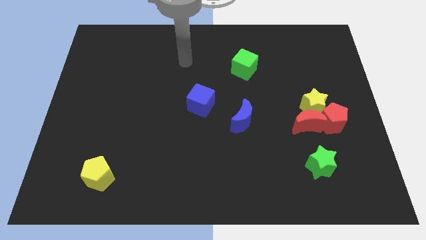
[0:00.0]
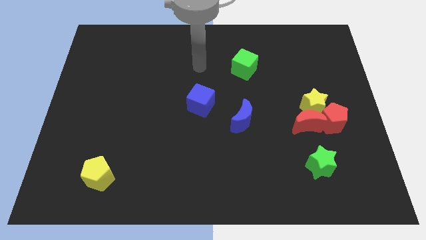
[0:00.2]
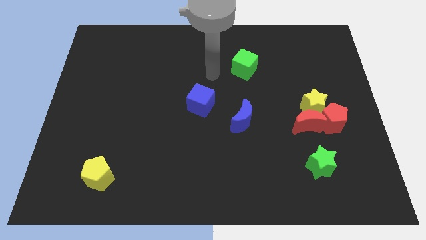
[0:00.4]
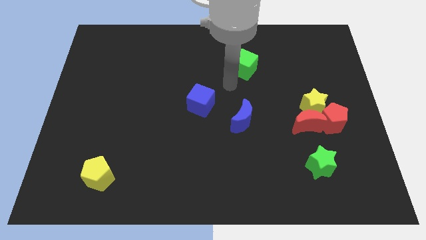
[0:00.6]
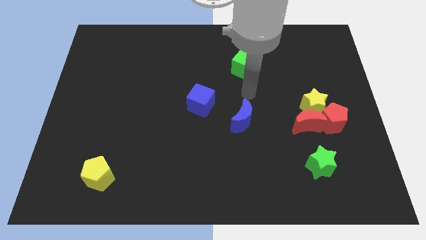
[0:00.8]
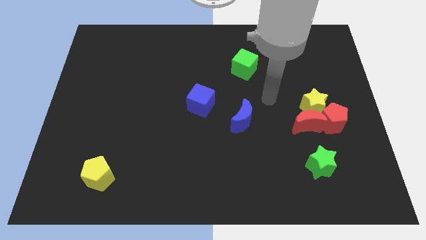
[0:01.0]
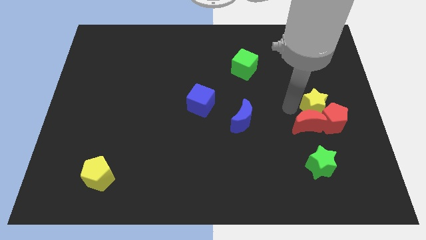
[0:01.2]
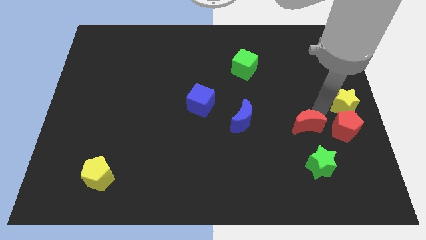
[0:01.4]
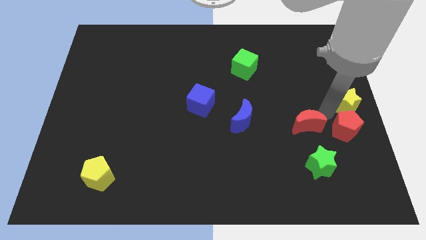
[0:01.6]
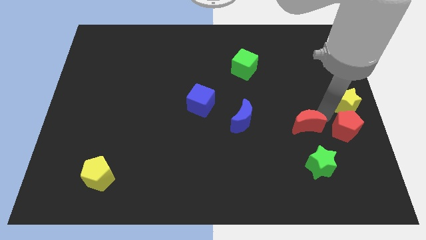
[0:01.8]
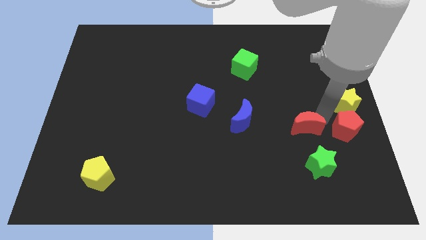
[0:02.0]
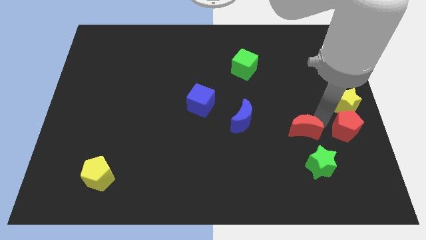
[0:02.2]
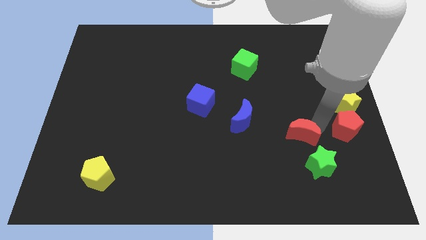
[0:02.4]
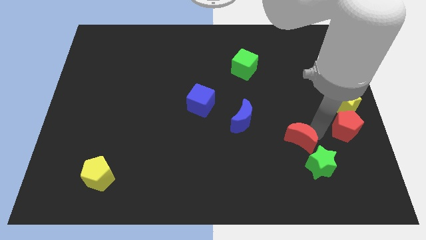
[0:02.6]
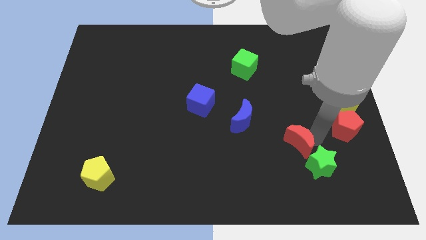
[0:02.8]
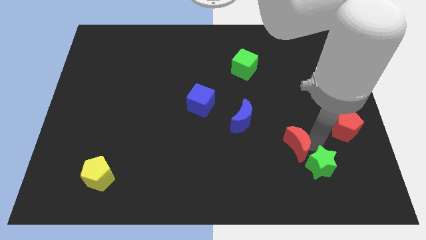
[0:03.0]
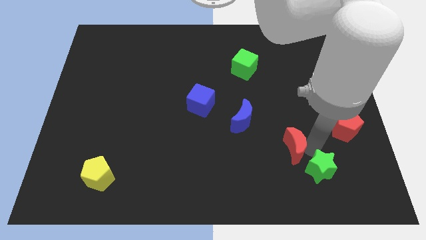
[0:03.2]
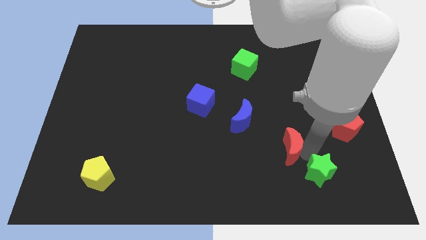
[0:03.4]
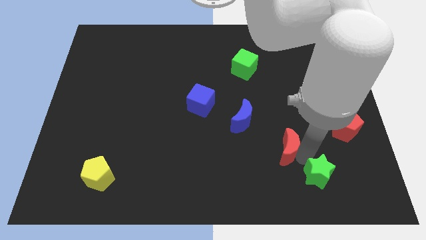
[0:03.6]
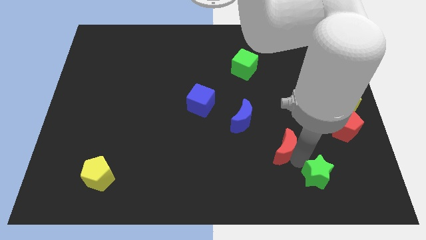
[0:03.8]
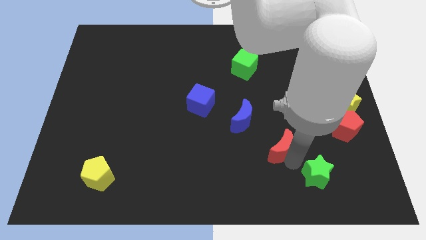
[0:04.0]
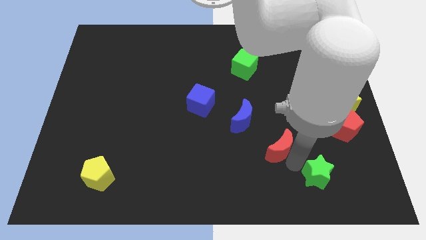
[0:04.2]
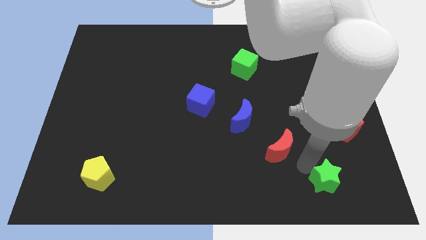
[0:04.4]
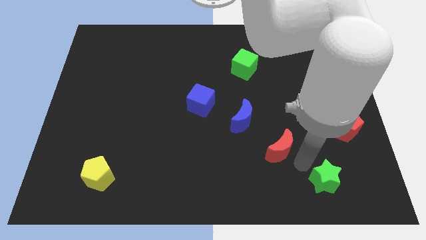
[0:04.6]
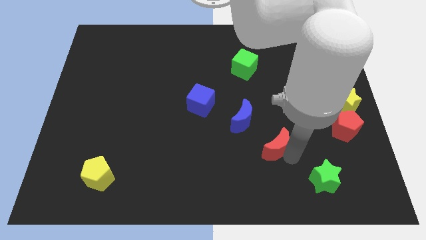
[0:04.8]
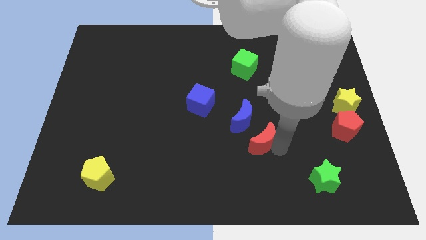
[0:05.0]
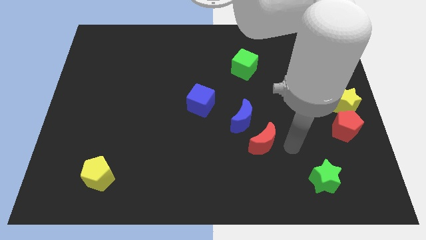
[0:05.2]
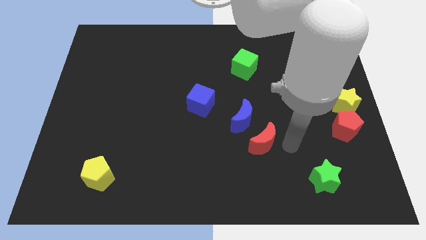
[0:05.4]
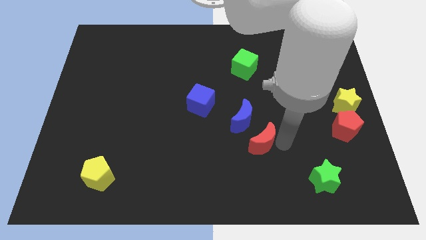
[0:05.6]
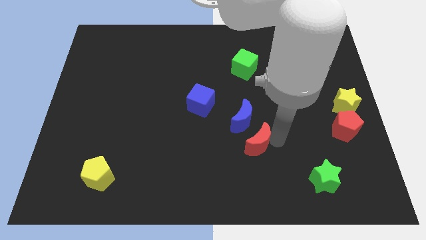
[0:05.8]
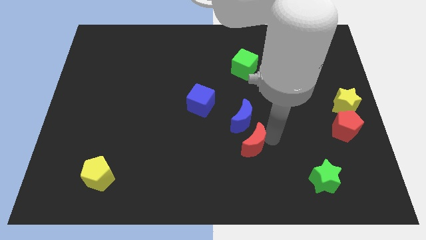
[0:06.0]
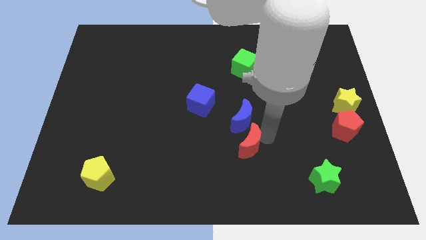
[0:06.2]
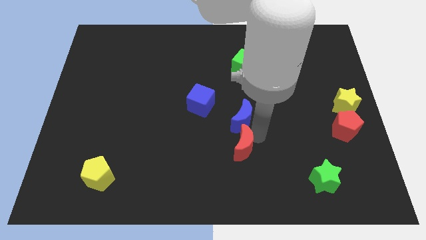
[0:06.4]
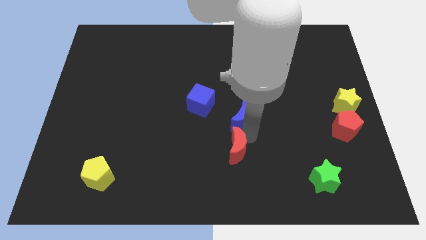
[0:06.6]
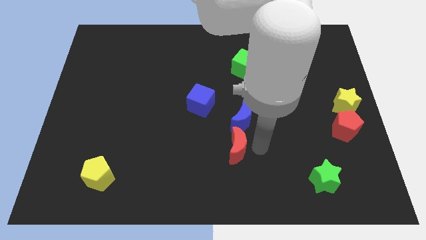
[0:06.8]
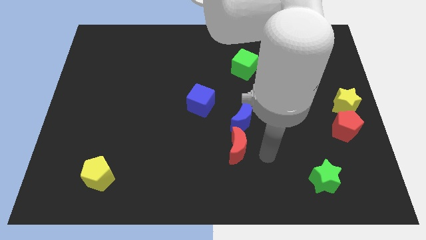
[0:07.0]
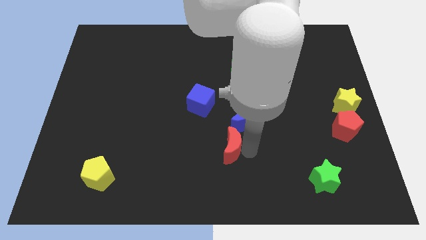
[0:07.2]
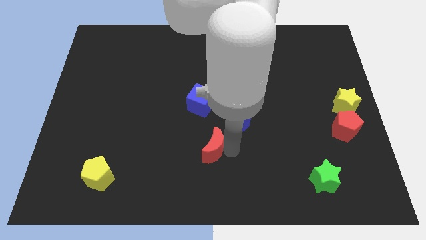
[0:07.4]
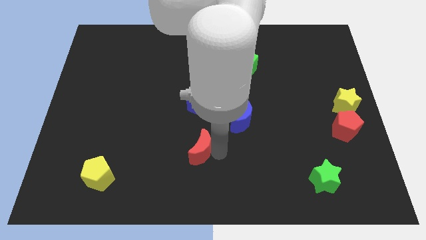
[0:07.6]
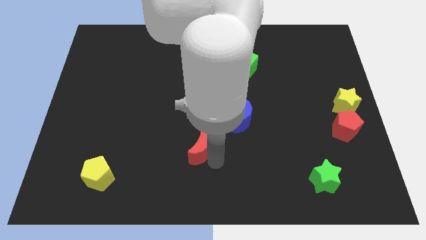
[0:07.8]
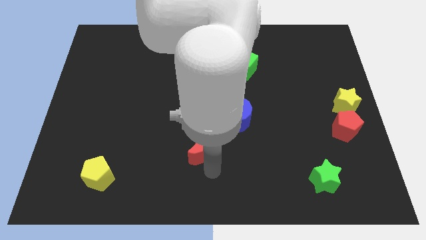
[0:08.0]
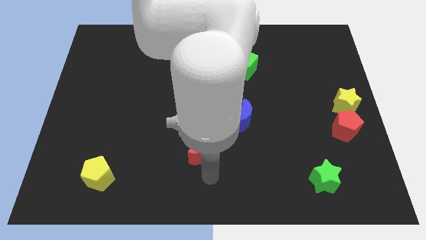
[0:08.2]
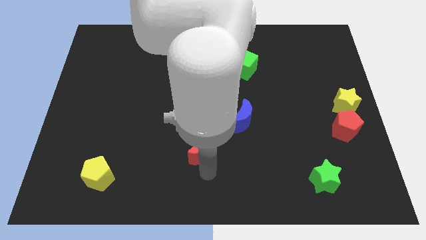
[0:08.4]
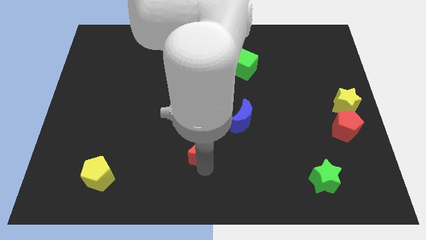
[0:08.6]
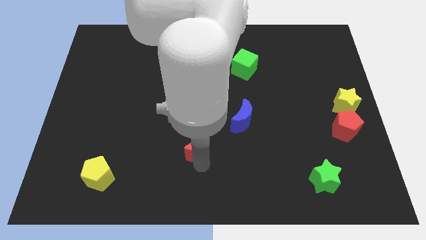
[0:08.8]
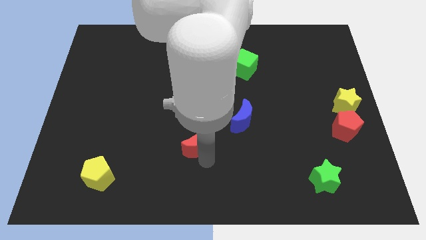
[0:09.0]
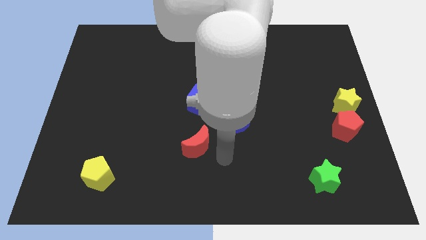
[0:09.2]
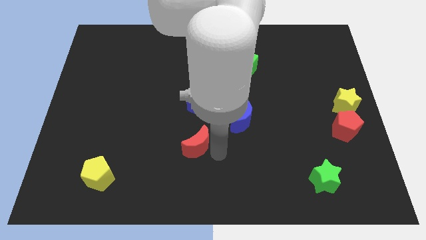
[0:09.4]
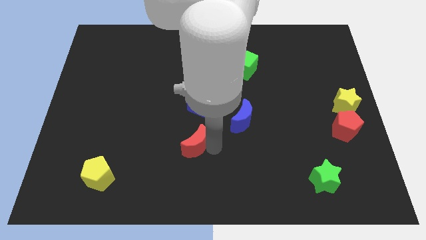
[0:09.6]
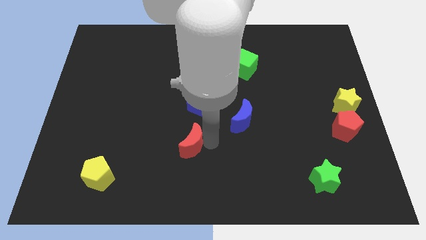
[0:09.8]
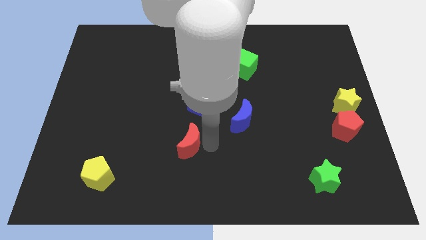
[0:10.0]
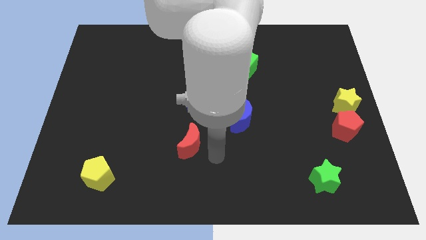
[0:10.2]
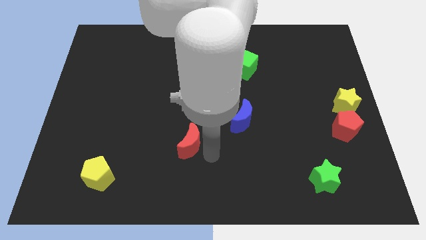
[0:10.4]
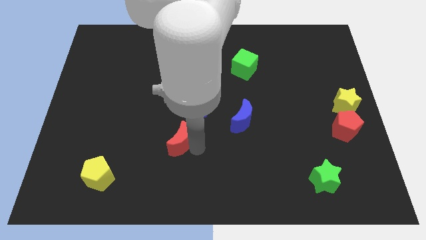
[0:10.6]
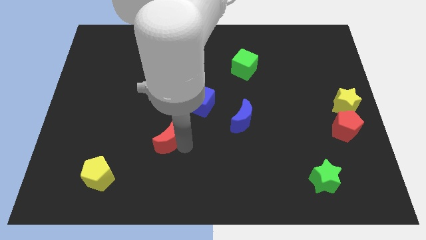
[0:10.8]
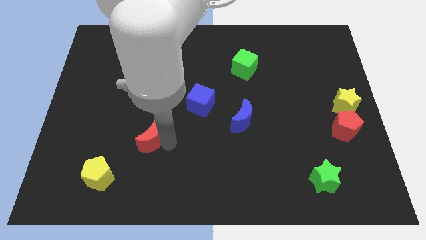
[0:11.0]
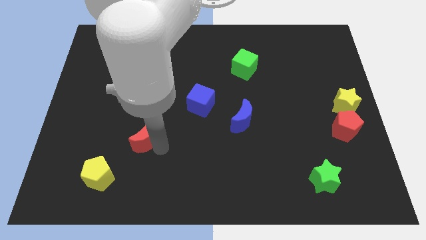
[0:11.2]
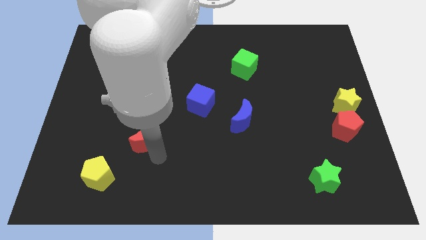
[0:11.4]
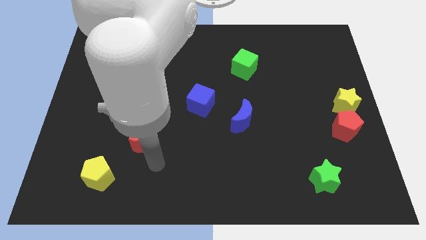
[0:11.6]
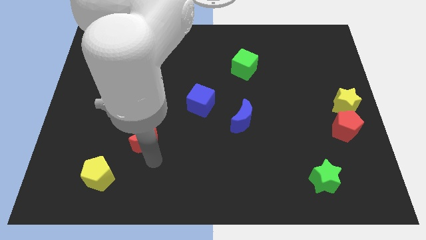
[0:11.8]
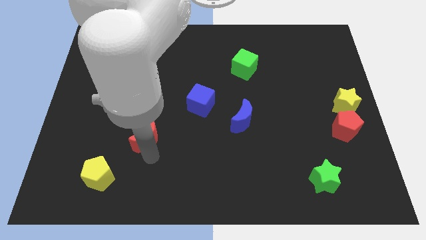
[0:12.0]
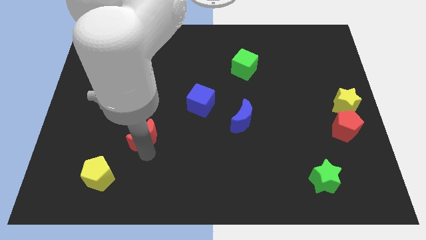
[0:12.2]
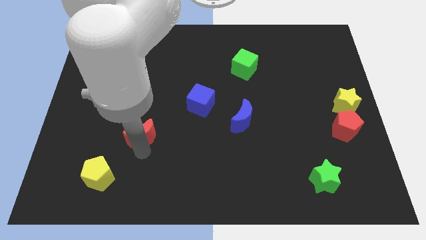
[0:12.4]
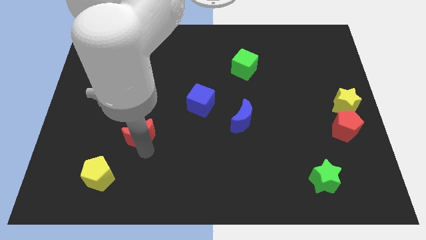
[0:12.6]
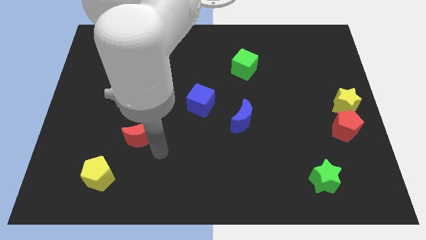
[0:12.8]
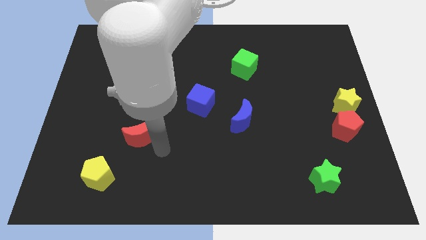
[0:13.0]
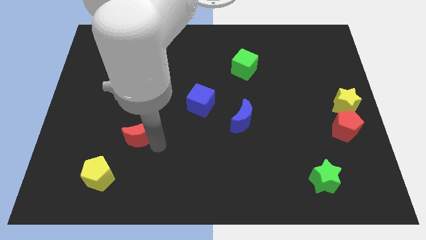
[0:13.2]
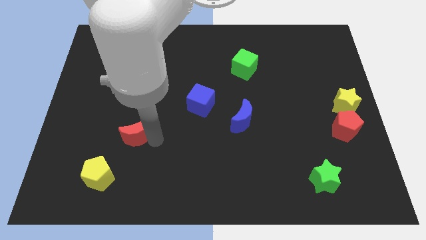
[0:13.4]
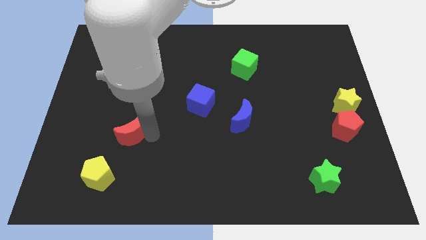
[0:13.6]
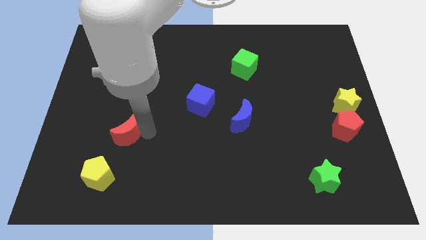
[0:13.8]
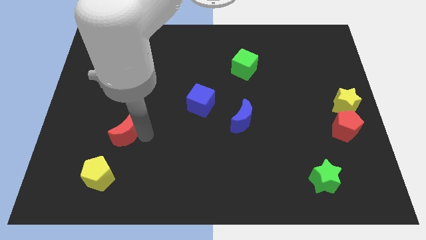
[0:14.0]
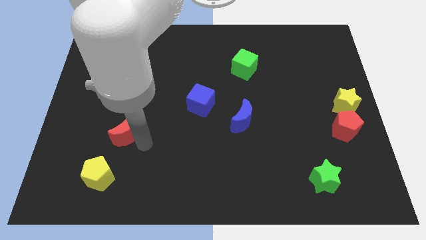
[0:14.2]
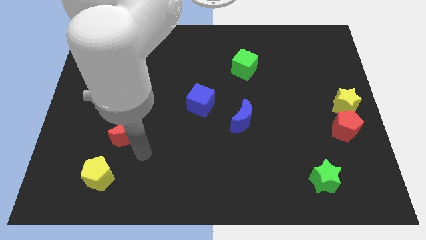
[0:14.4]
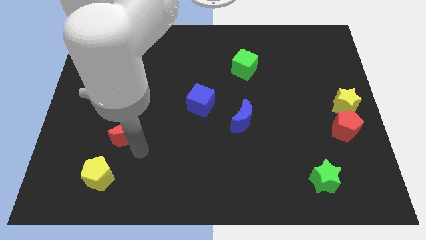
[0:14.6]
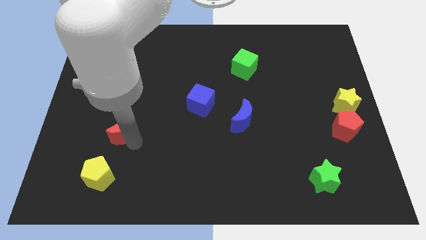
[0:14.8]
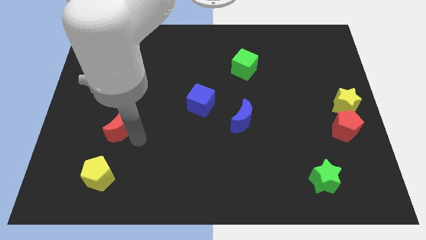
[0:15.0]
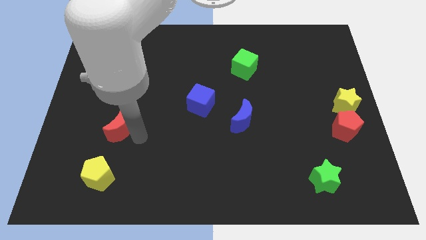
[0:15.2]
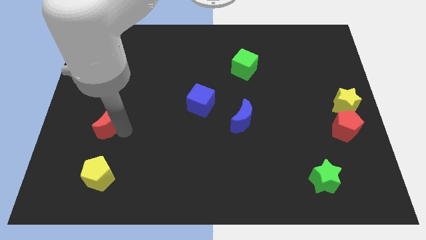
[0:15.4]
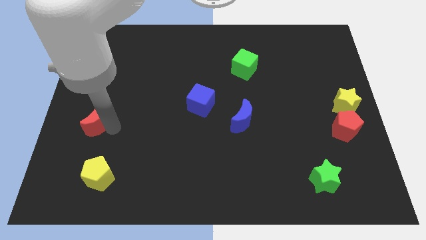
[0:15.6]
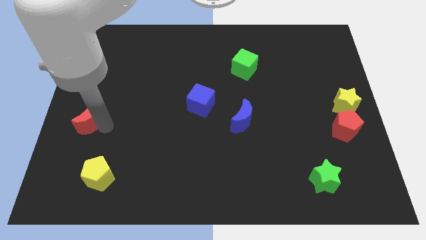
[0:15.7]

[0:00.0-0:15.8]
move the red moon to the left side
